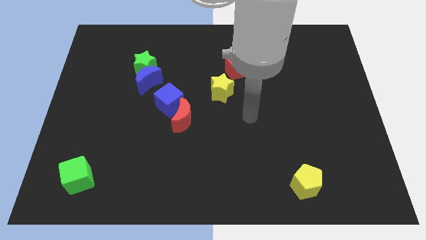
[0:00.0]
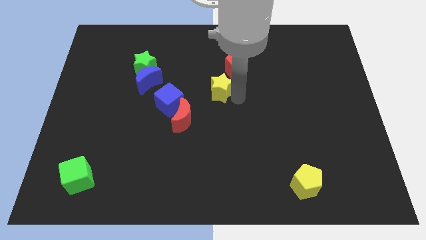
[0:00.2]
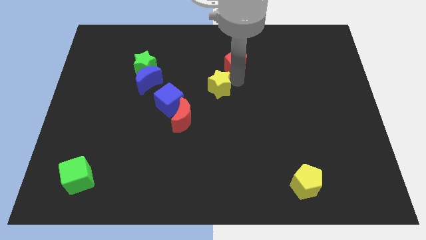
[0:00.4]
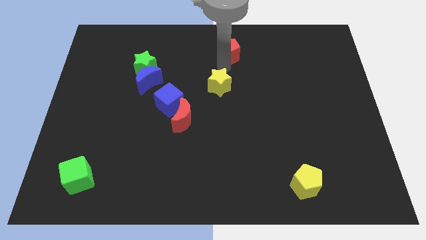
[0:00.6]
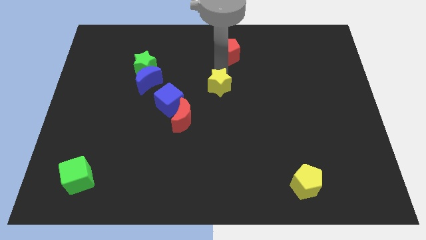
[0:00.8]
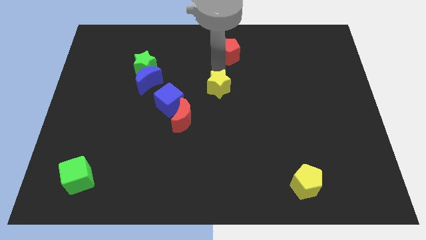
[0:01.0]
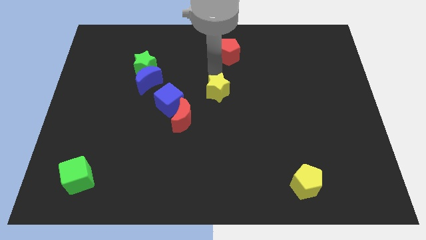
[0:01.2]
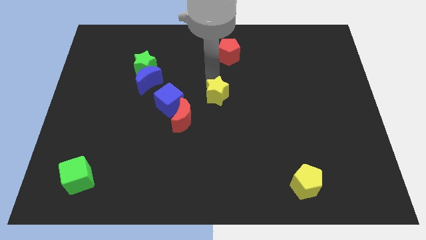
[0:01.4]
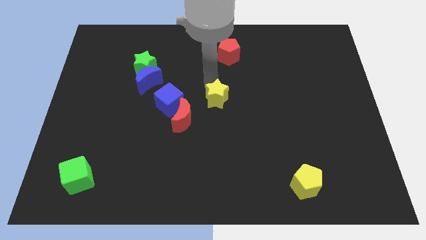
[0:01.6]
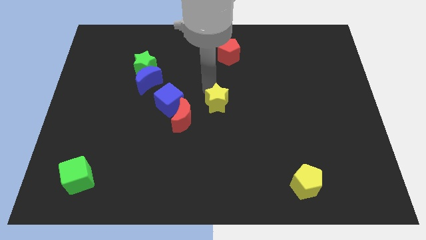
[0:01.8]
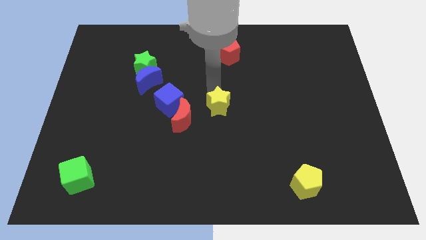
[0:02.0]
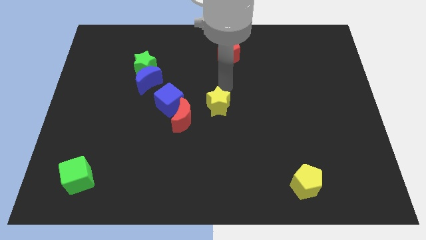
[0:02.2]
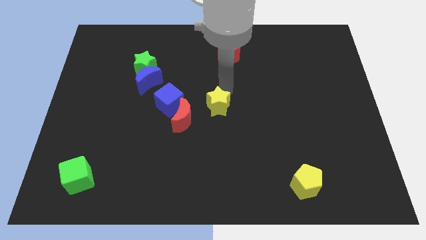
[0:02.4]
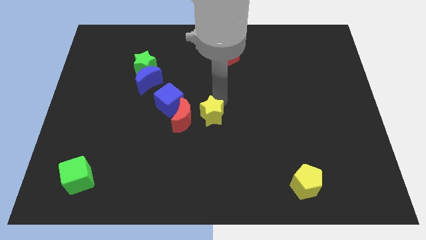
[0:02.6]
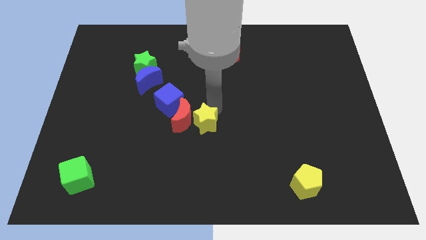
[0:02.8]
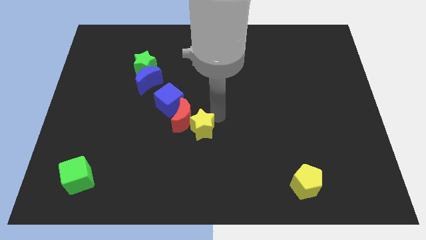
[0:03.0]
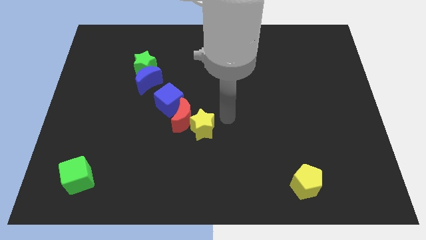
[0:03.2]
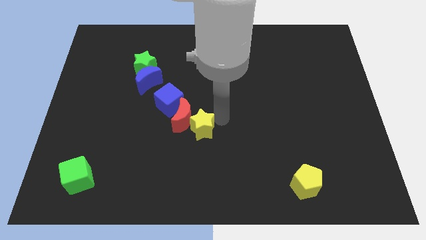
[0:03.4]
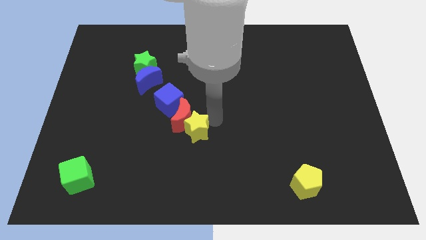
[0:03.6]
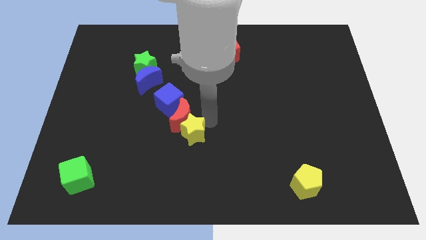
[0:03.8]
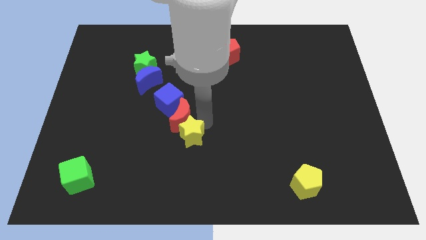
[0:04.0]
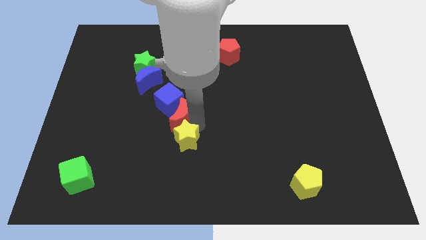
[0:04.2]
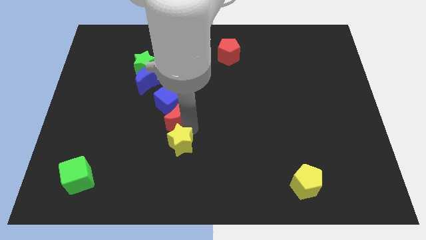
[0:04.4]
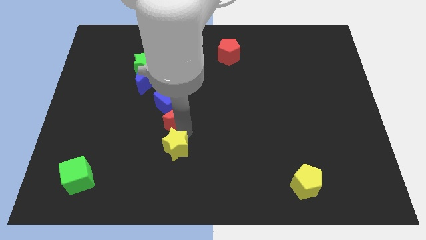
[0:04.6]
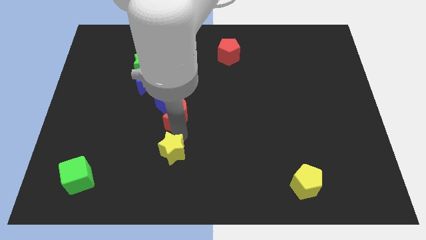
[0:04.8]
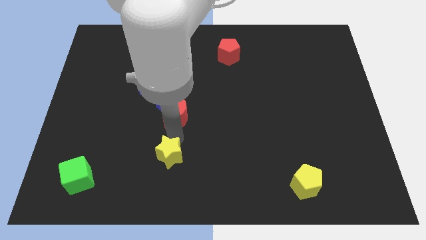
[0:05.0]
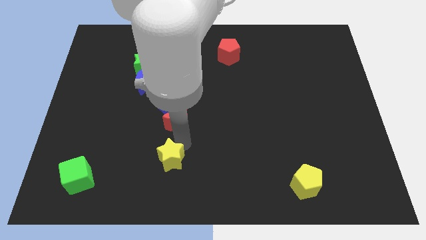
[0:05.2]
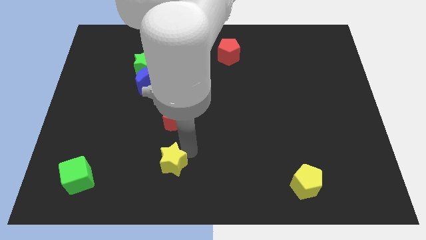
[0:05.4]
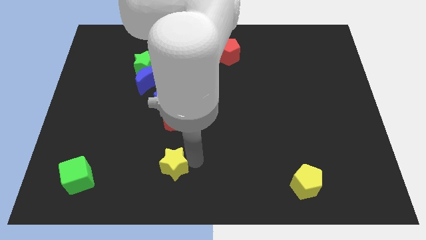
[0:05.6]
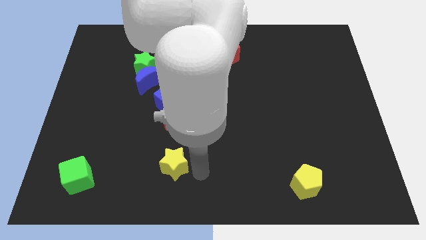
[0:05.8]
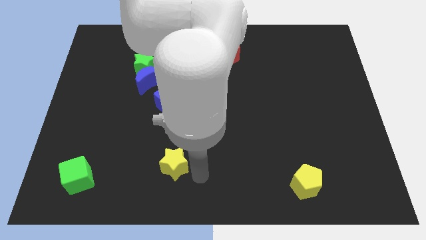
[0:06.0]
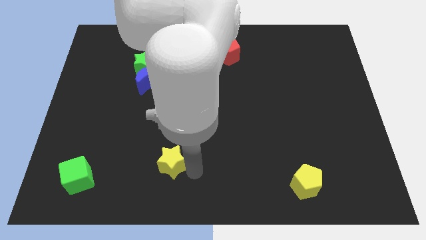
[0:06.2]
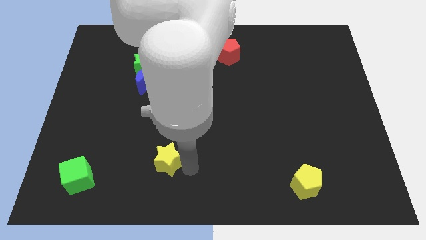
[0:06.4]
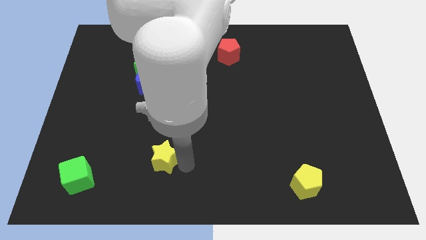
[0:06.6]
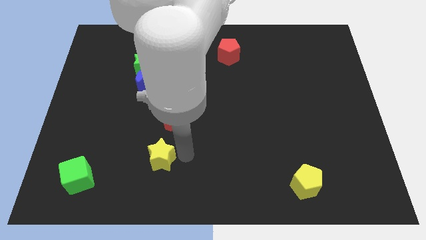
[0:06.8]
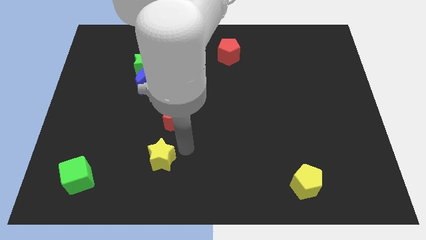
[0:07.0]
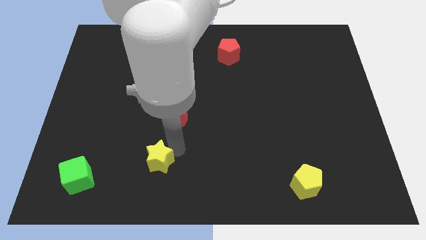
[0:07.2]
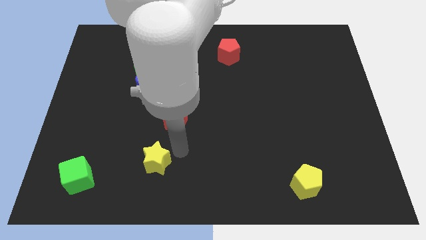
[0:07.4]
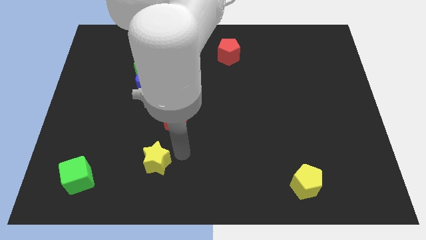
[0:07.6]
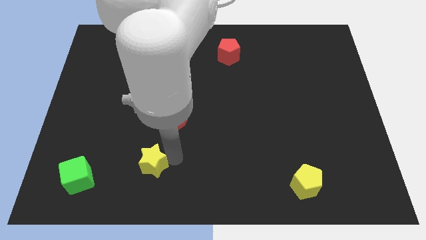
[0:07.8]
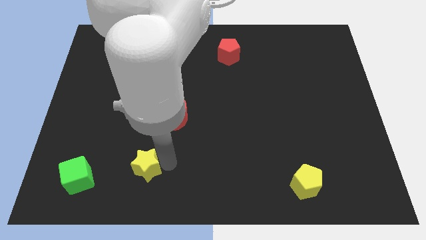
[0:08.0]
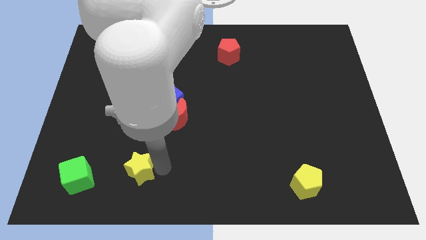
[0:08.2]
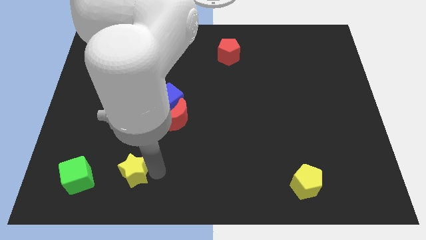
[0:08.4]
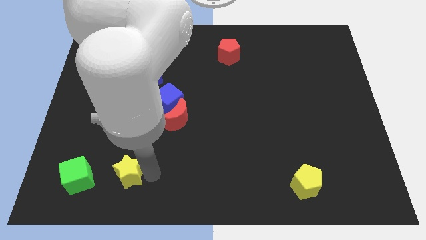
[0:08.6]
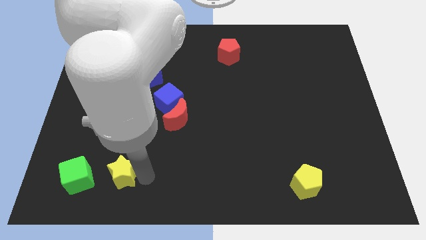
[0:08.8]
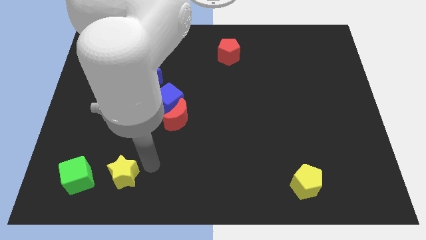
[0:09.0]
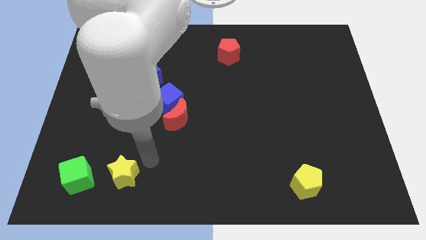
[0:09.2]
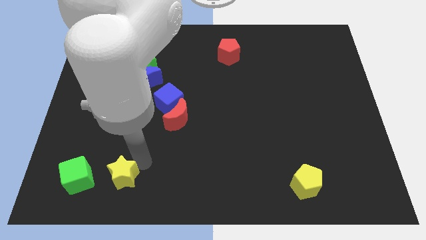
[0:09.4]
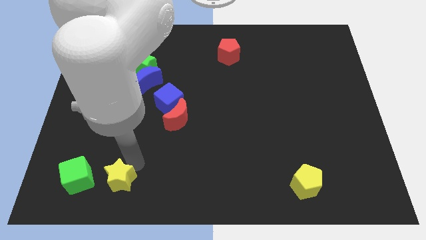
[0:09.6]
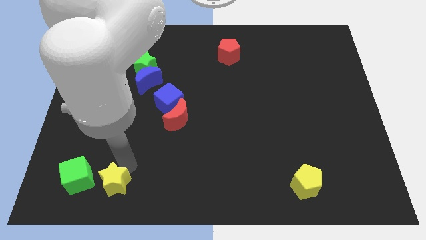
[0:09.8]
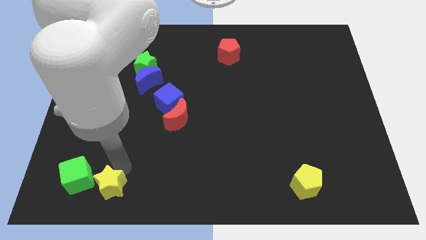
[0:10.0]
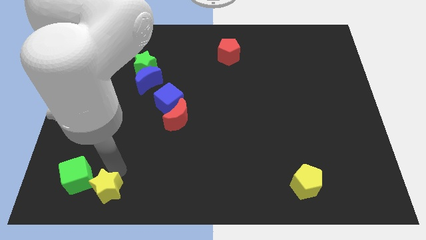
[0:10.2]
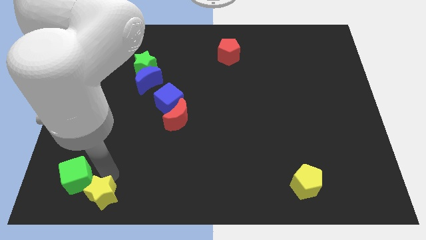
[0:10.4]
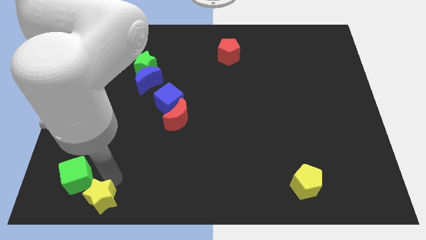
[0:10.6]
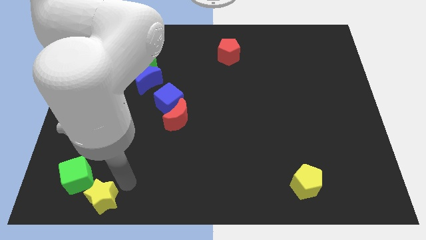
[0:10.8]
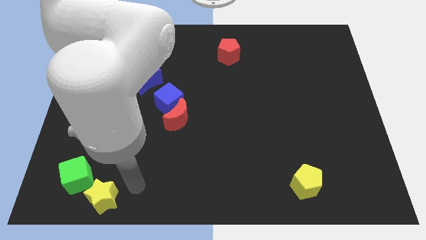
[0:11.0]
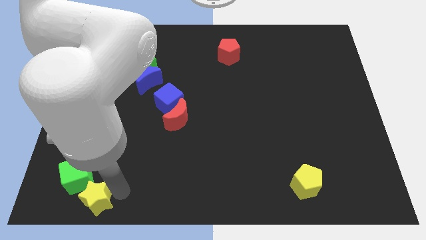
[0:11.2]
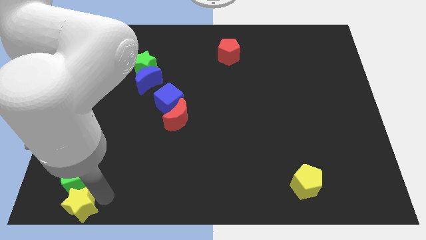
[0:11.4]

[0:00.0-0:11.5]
push the yellow star to the bottom left of the board
